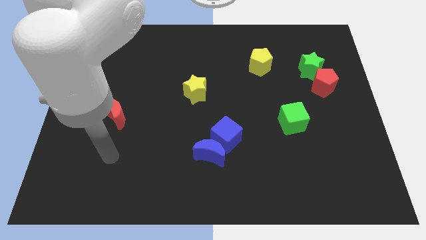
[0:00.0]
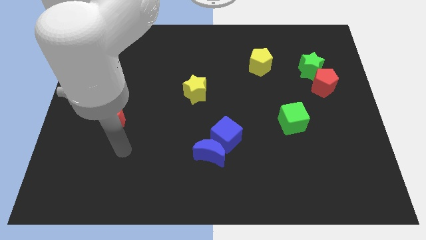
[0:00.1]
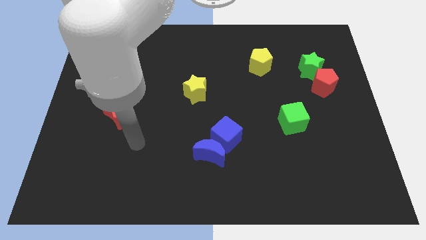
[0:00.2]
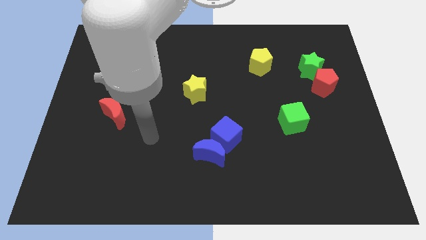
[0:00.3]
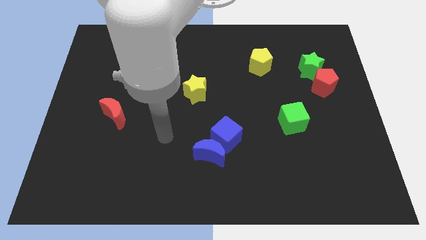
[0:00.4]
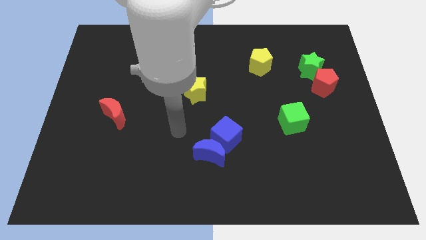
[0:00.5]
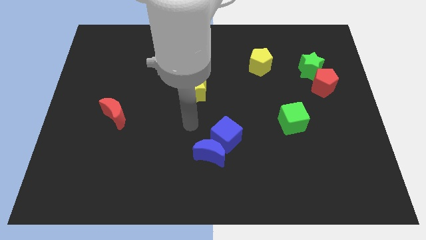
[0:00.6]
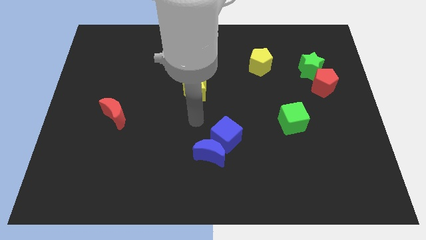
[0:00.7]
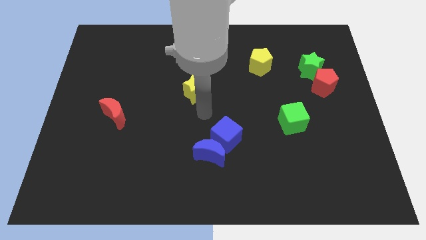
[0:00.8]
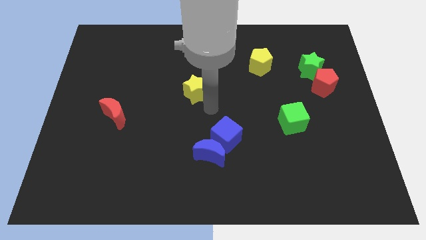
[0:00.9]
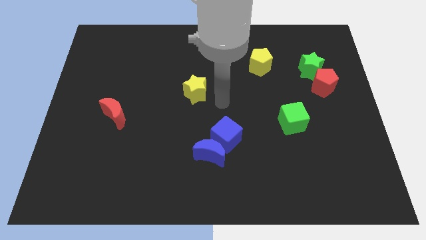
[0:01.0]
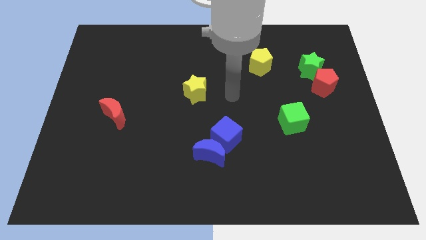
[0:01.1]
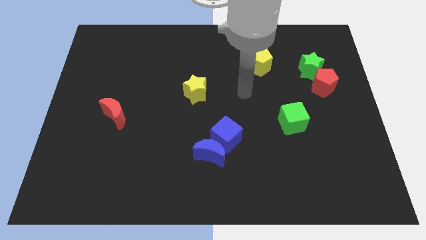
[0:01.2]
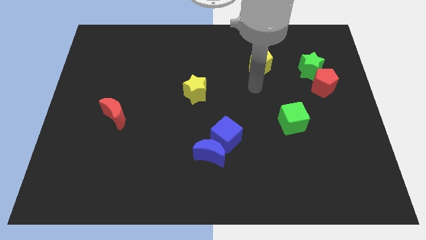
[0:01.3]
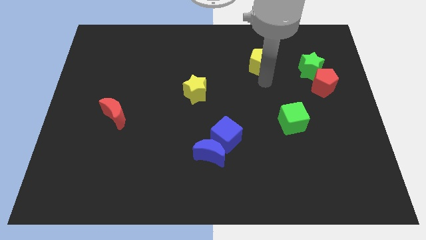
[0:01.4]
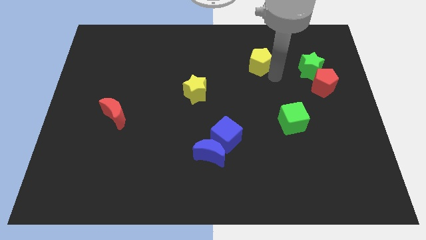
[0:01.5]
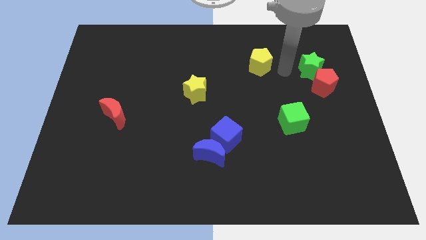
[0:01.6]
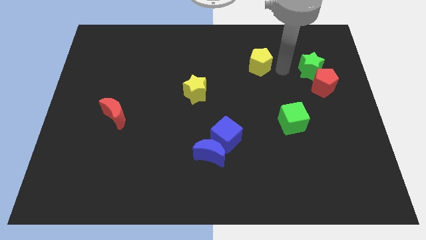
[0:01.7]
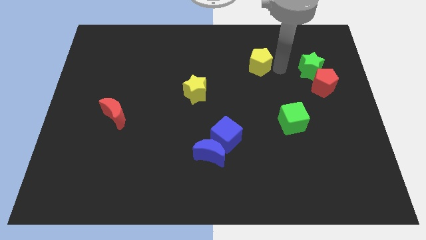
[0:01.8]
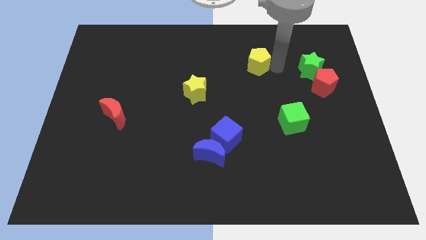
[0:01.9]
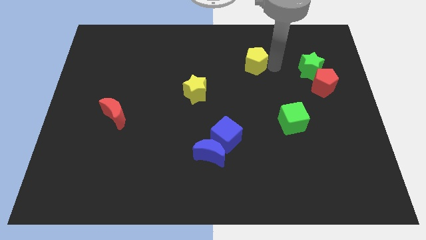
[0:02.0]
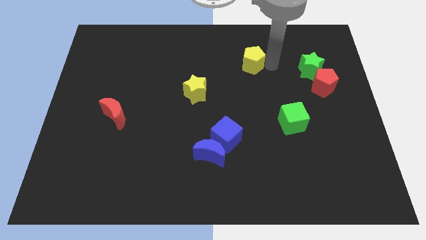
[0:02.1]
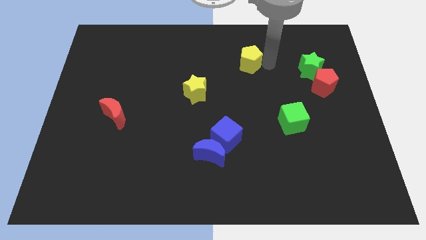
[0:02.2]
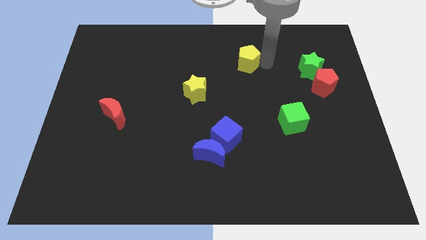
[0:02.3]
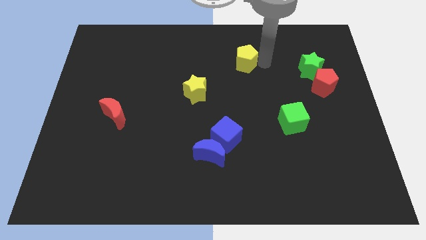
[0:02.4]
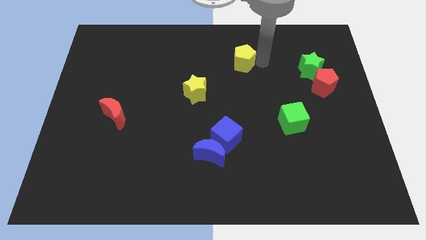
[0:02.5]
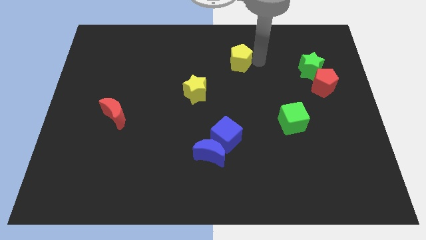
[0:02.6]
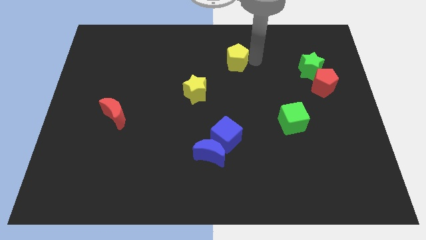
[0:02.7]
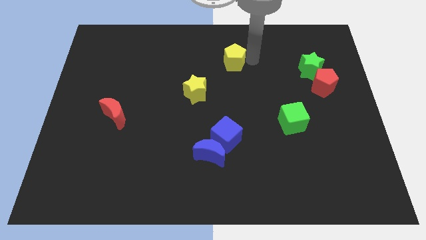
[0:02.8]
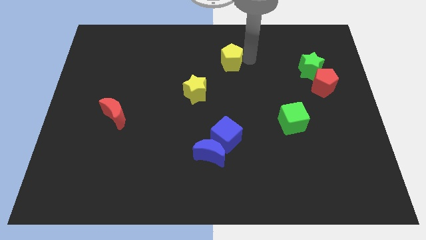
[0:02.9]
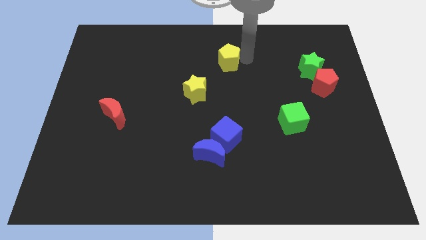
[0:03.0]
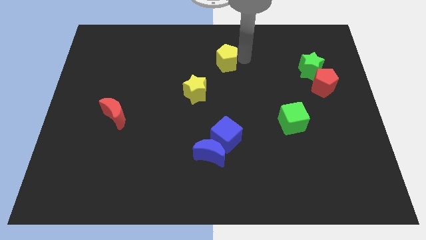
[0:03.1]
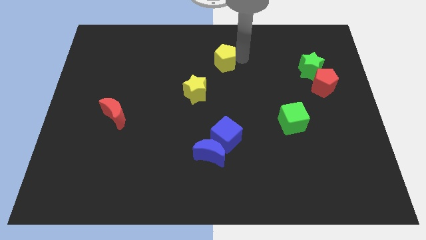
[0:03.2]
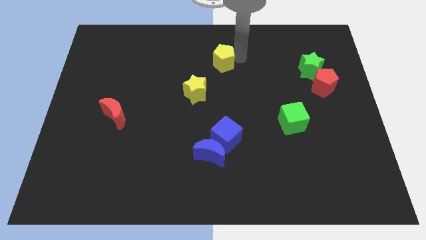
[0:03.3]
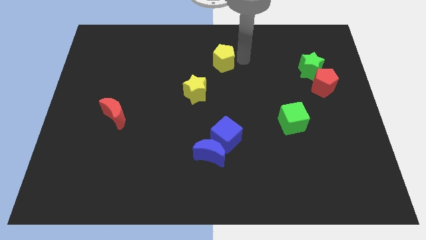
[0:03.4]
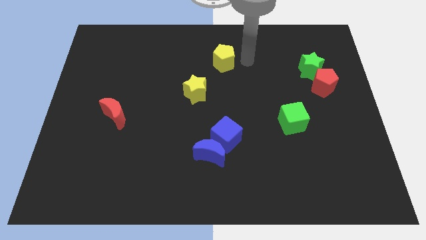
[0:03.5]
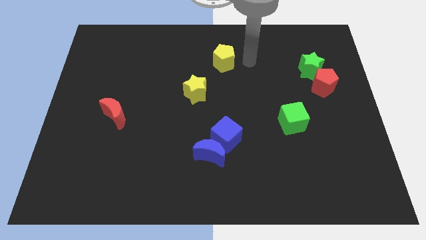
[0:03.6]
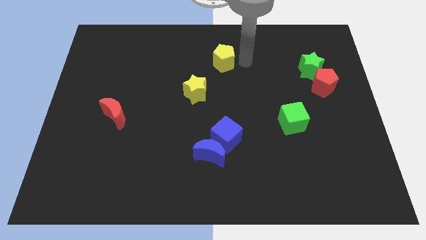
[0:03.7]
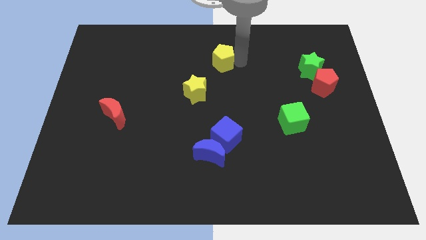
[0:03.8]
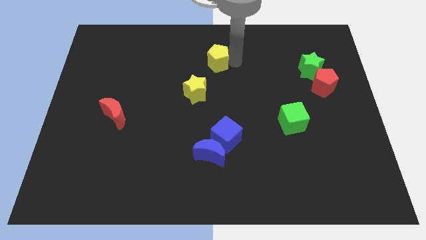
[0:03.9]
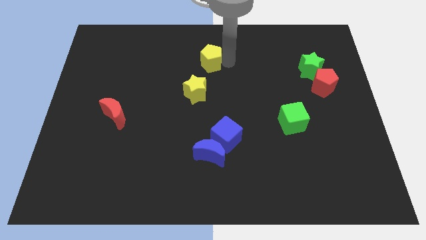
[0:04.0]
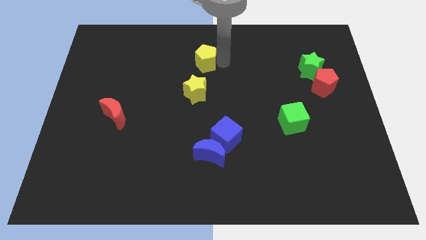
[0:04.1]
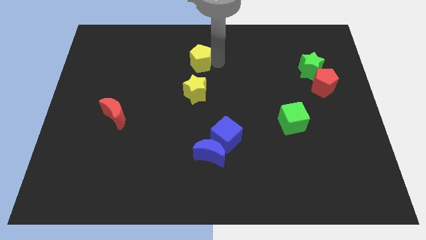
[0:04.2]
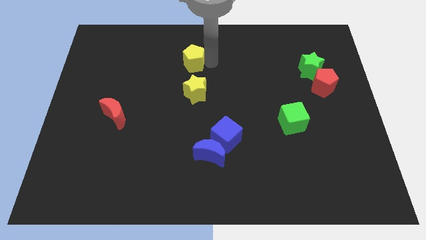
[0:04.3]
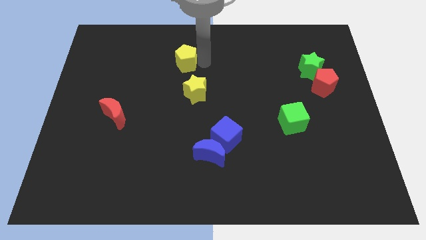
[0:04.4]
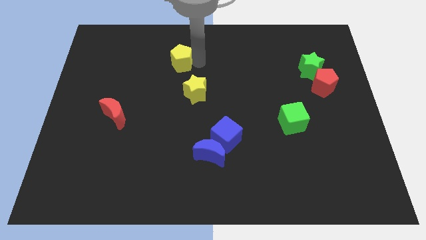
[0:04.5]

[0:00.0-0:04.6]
slide the yellow pentagon to the left

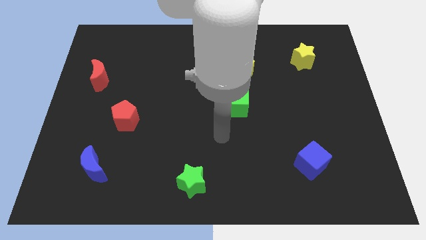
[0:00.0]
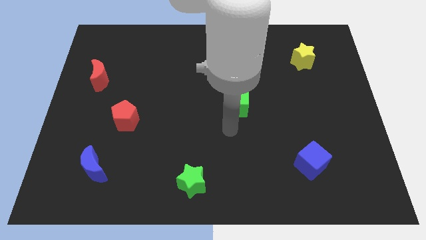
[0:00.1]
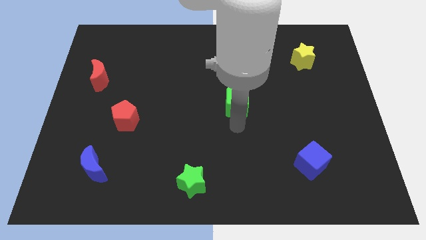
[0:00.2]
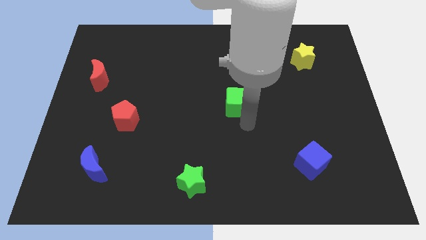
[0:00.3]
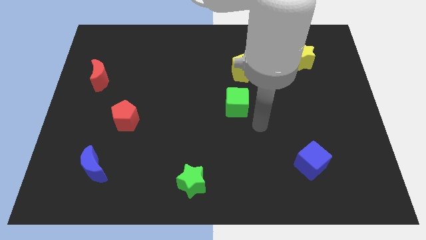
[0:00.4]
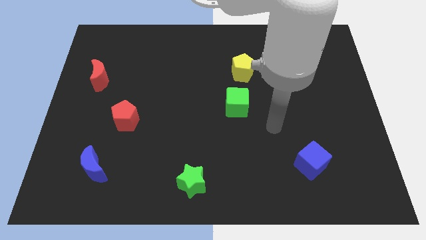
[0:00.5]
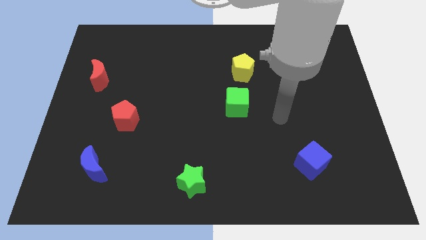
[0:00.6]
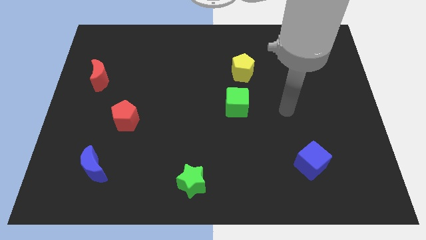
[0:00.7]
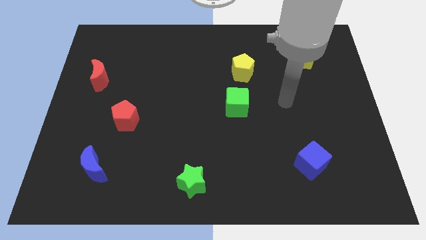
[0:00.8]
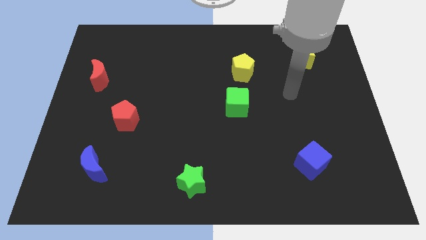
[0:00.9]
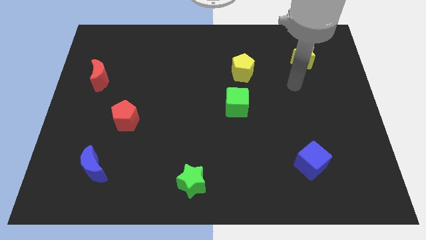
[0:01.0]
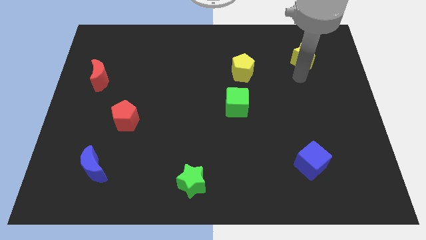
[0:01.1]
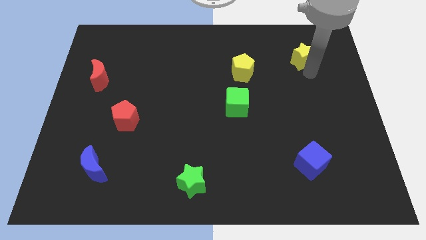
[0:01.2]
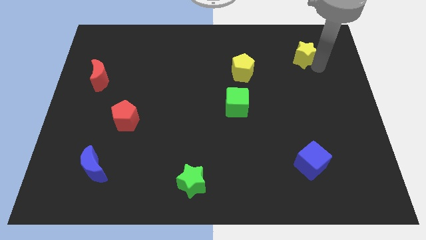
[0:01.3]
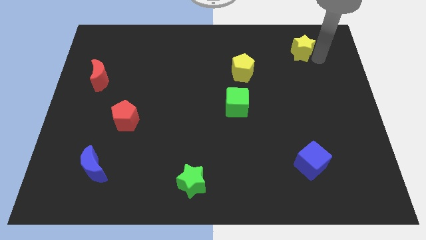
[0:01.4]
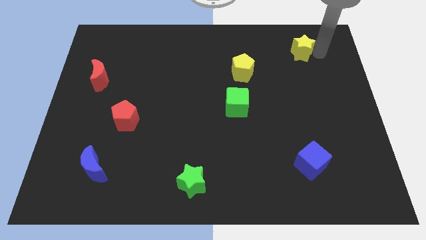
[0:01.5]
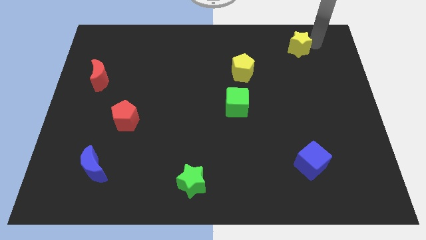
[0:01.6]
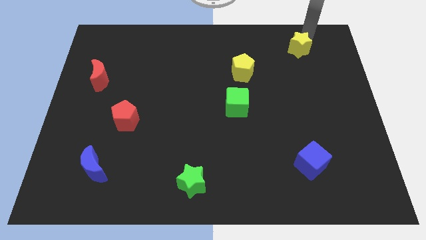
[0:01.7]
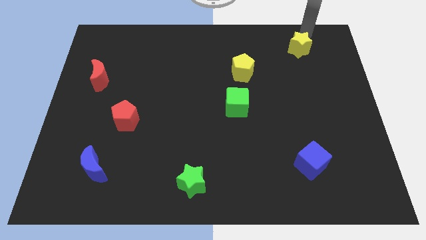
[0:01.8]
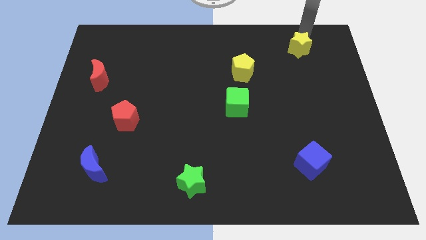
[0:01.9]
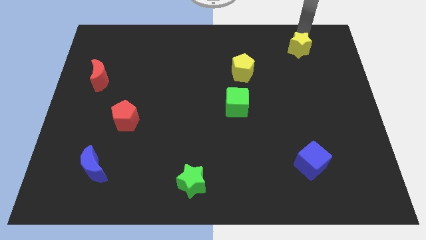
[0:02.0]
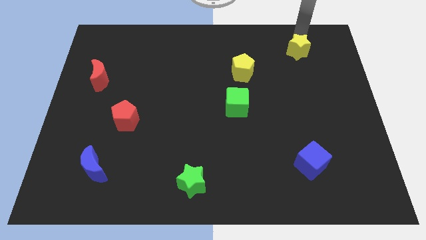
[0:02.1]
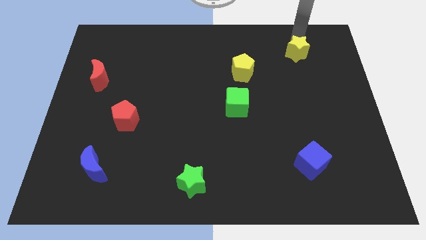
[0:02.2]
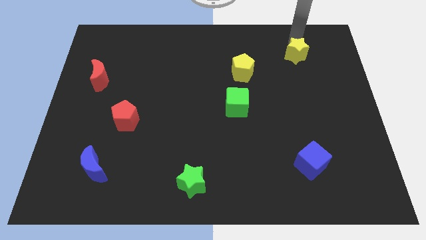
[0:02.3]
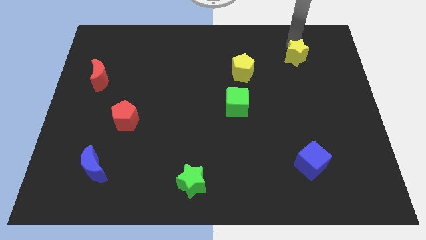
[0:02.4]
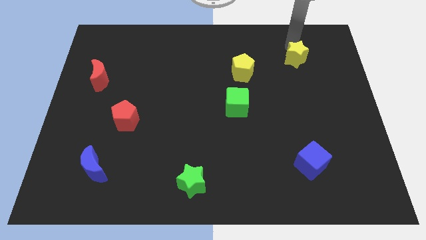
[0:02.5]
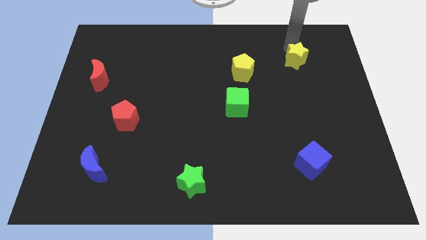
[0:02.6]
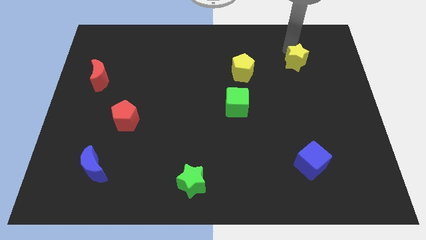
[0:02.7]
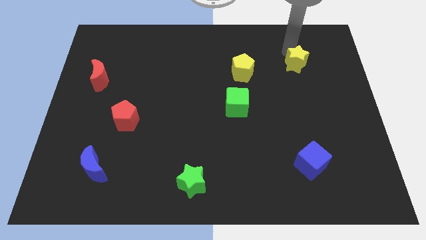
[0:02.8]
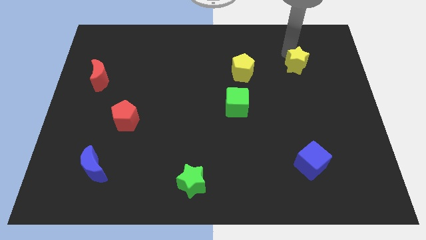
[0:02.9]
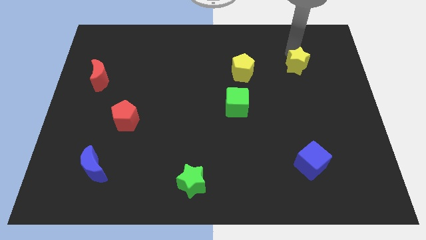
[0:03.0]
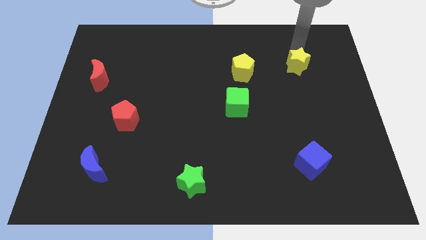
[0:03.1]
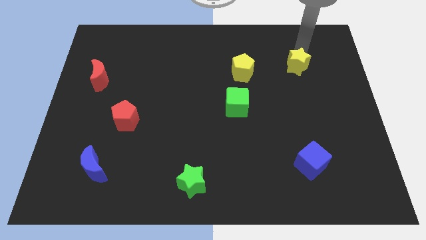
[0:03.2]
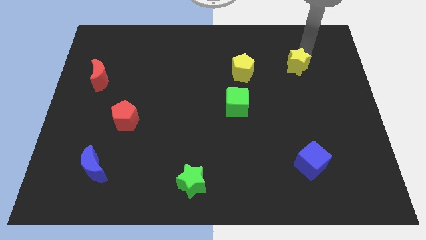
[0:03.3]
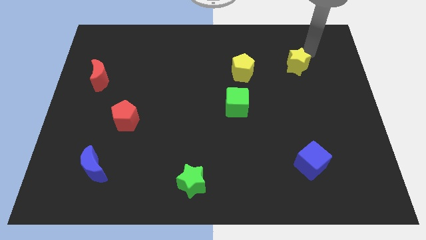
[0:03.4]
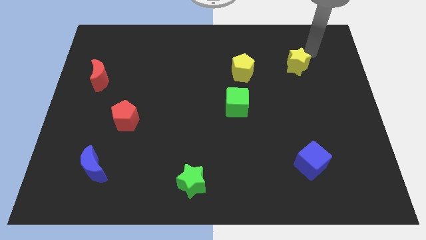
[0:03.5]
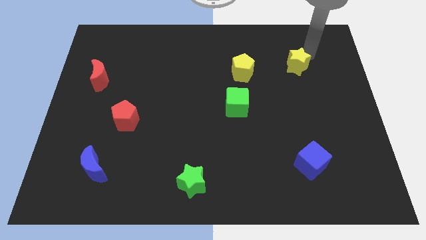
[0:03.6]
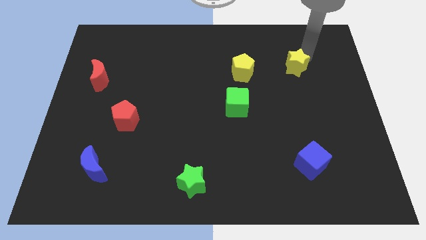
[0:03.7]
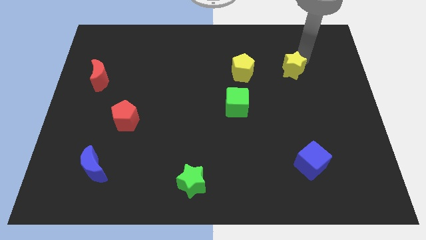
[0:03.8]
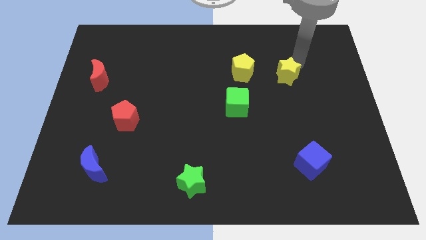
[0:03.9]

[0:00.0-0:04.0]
slide the yellow star a bit diagonally downwards and to the left
